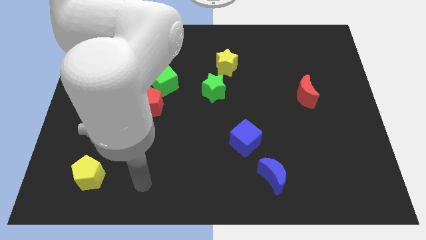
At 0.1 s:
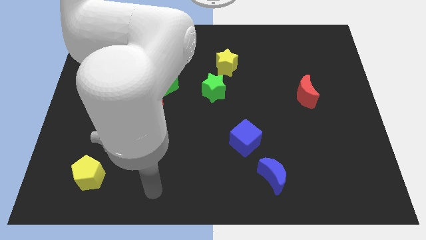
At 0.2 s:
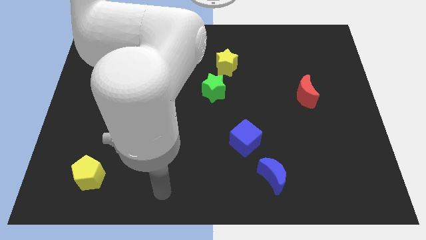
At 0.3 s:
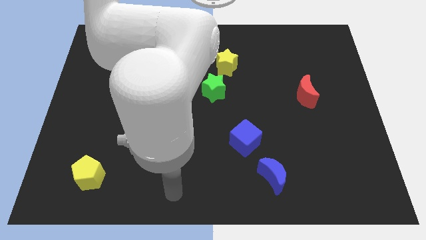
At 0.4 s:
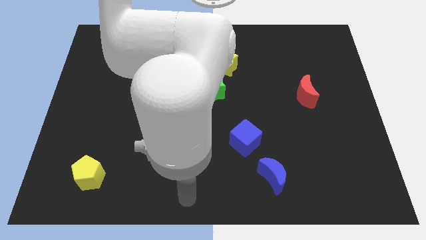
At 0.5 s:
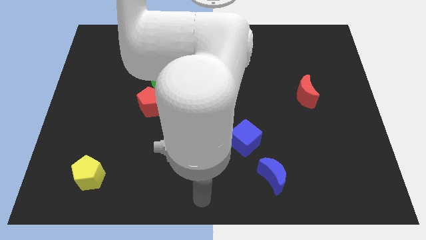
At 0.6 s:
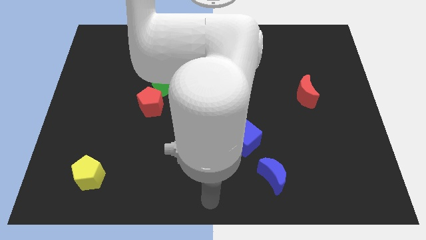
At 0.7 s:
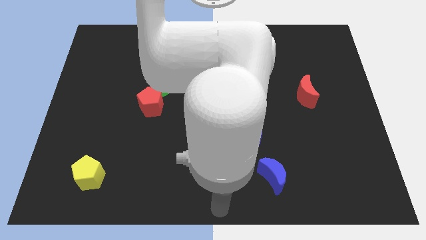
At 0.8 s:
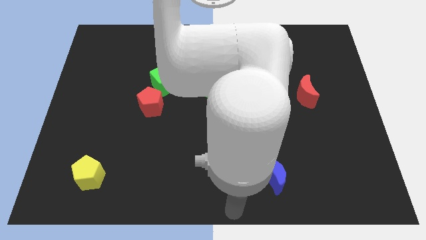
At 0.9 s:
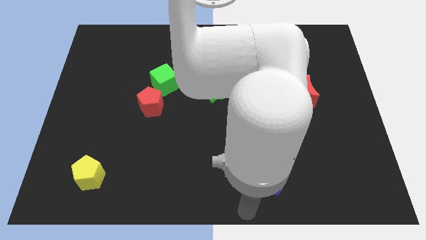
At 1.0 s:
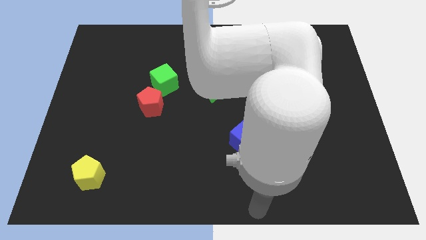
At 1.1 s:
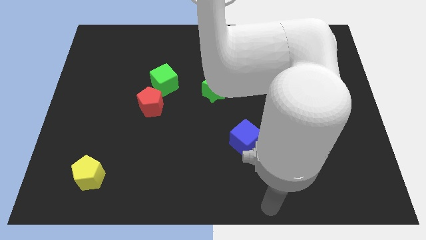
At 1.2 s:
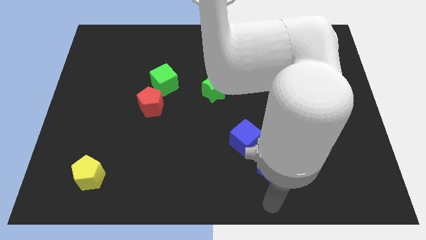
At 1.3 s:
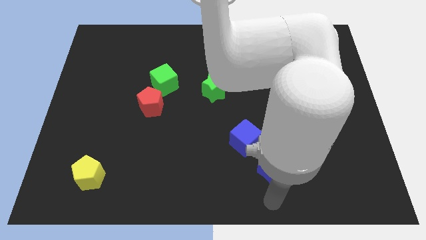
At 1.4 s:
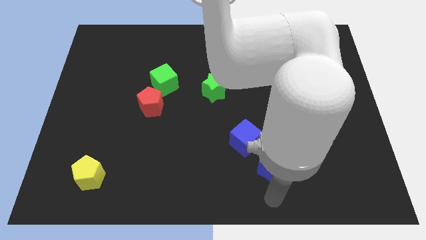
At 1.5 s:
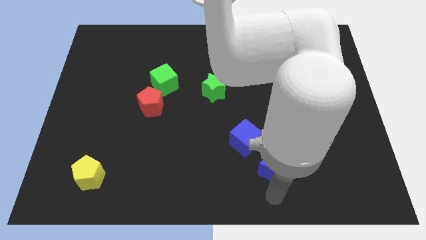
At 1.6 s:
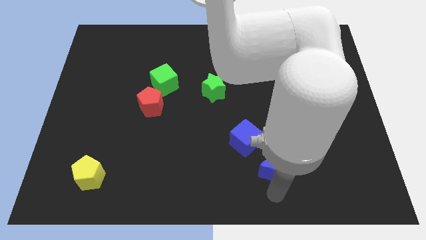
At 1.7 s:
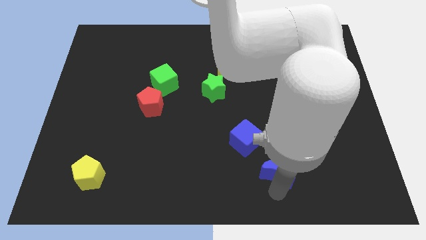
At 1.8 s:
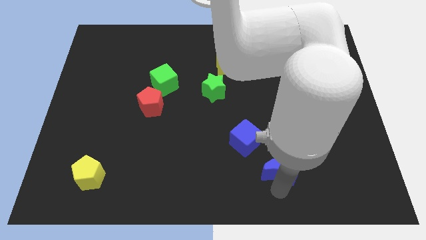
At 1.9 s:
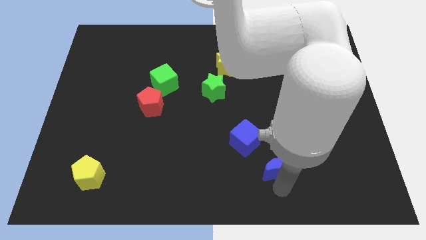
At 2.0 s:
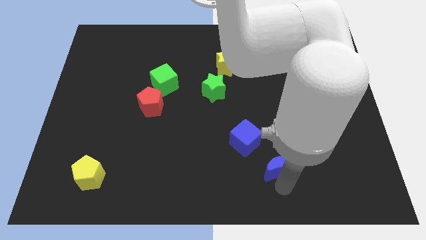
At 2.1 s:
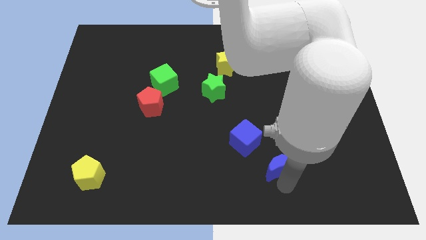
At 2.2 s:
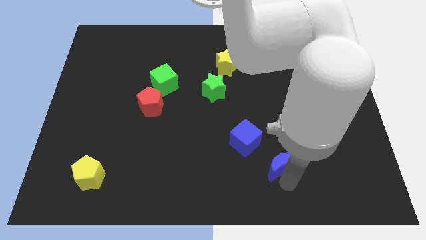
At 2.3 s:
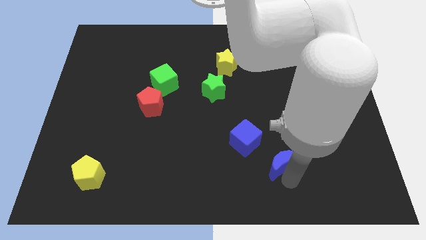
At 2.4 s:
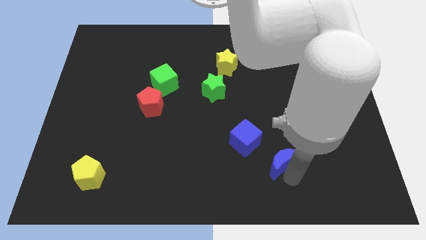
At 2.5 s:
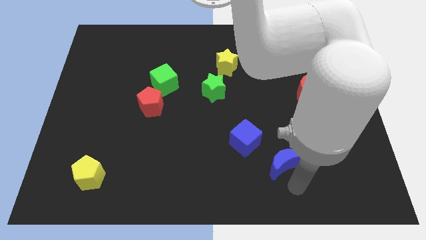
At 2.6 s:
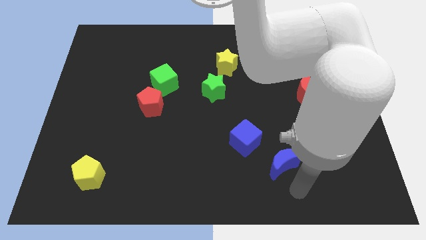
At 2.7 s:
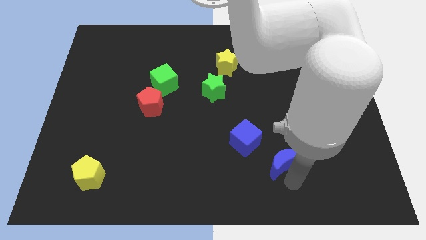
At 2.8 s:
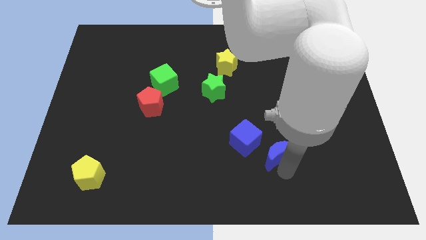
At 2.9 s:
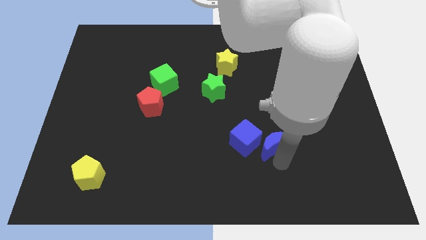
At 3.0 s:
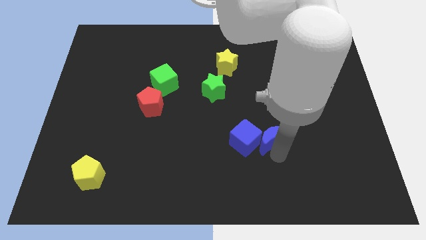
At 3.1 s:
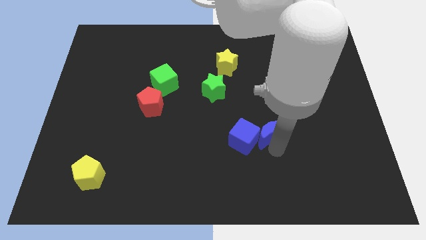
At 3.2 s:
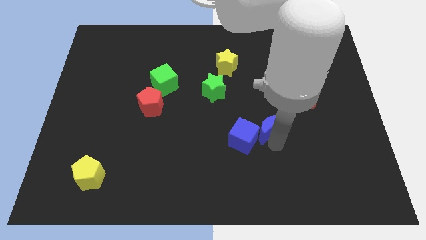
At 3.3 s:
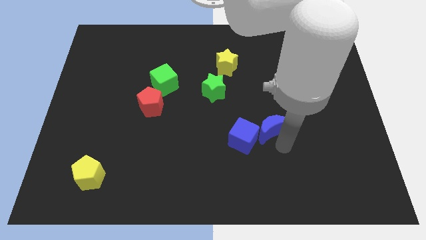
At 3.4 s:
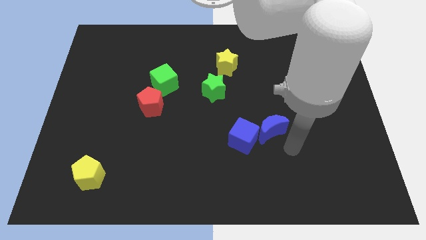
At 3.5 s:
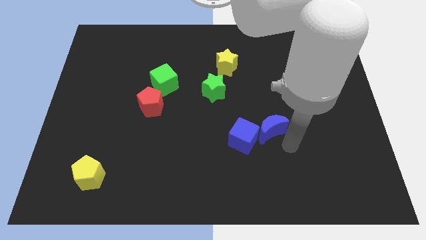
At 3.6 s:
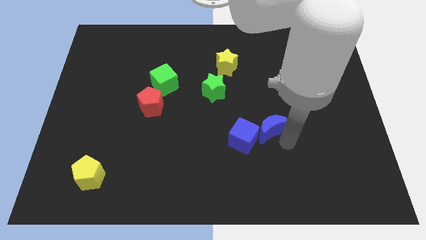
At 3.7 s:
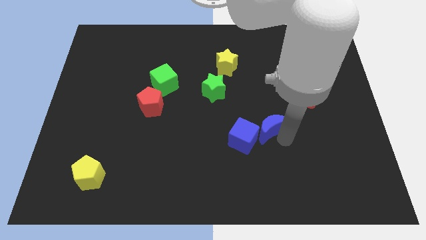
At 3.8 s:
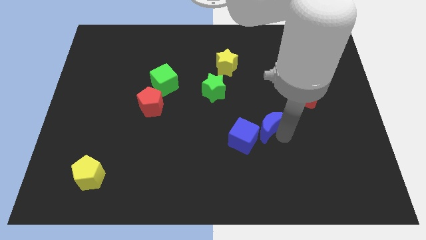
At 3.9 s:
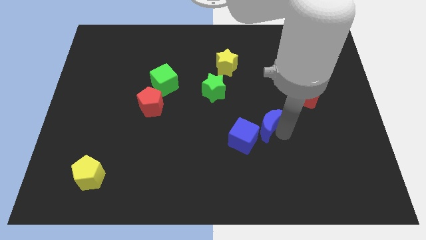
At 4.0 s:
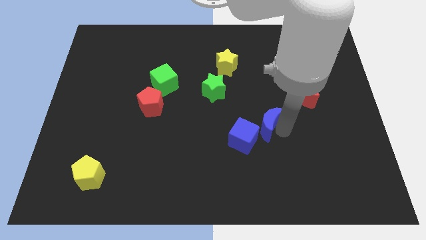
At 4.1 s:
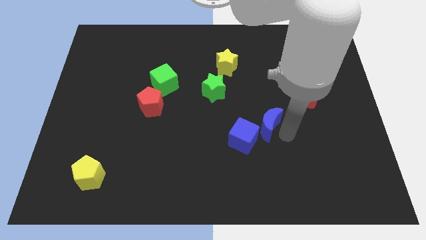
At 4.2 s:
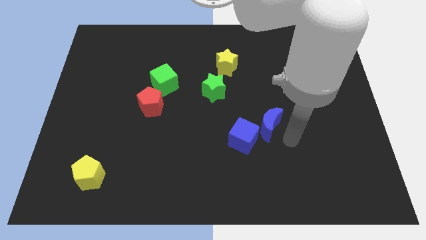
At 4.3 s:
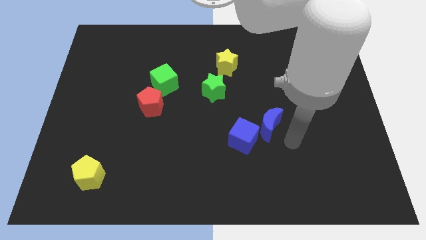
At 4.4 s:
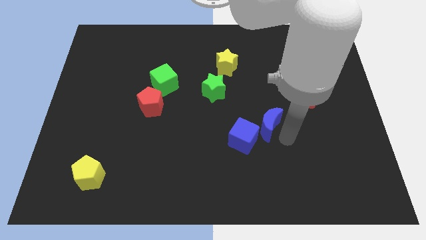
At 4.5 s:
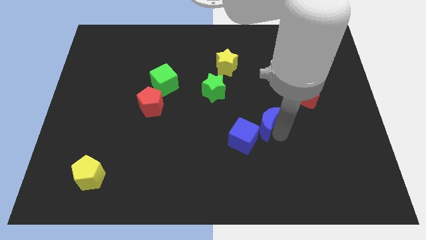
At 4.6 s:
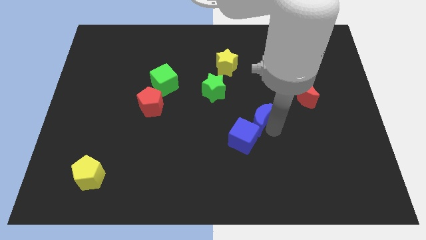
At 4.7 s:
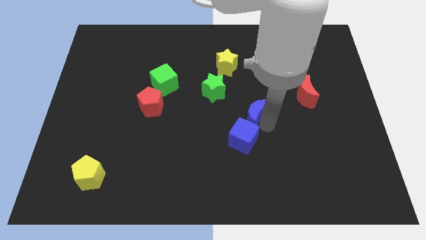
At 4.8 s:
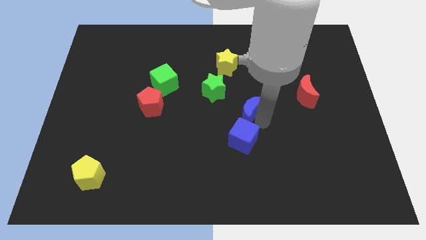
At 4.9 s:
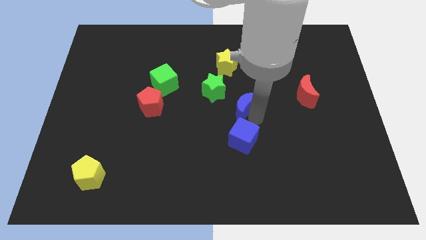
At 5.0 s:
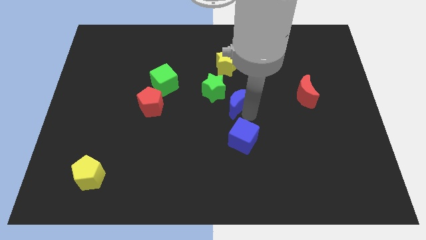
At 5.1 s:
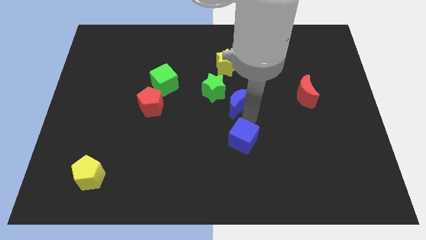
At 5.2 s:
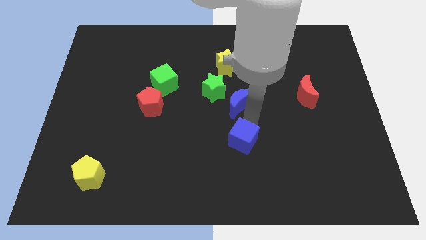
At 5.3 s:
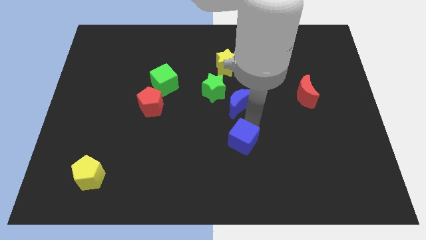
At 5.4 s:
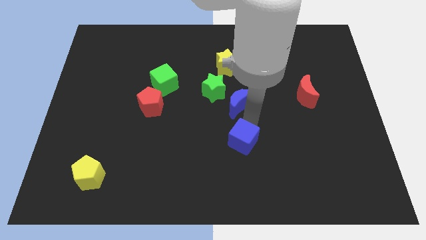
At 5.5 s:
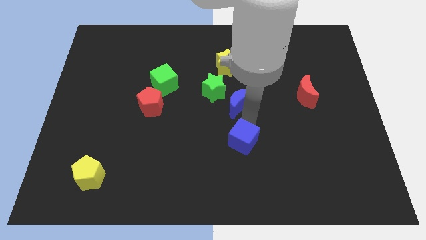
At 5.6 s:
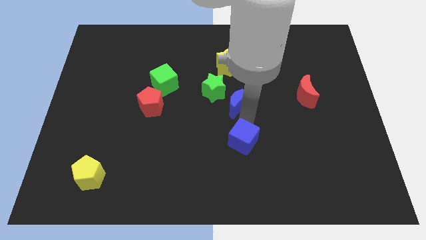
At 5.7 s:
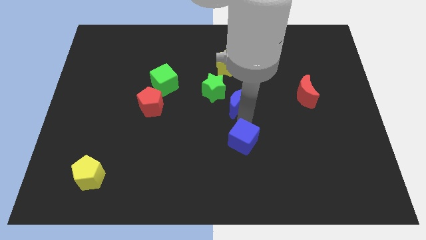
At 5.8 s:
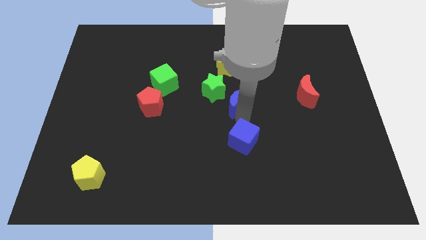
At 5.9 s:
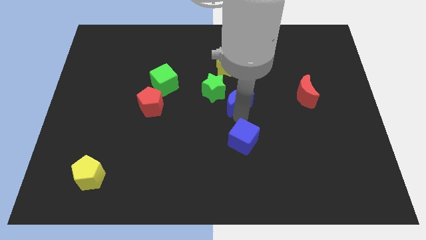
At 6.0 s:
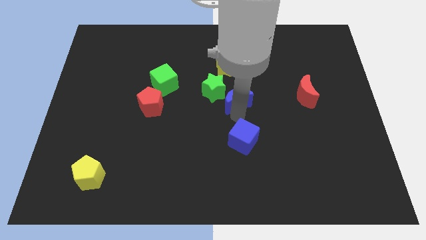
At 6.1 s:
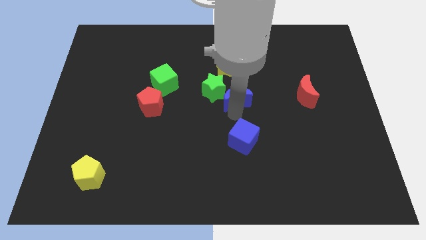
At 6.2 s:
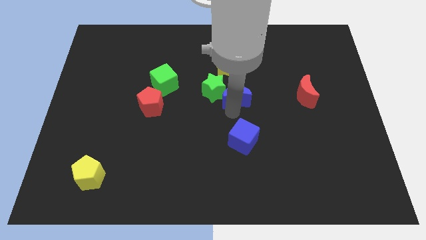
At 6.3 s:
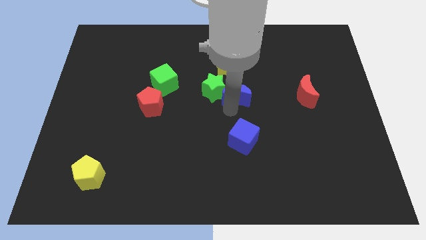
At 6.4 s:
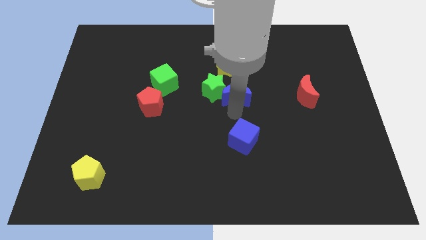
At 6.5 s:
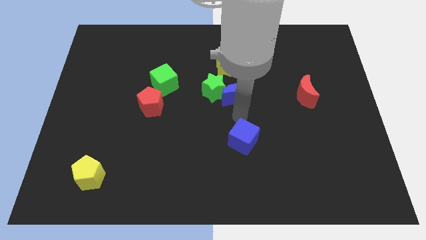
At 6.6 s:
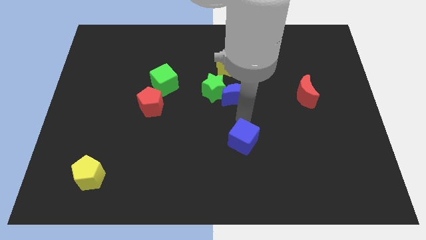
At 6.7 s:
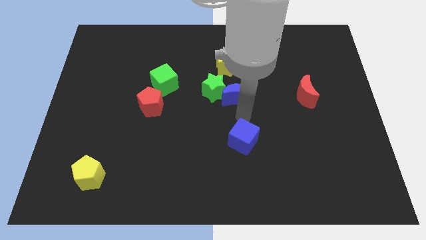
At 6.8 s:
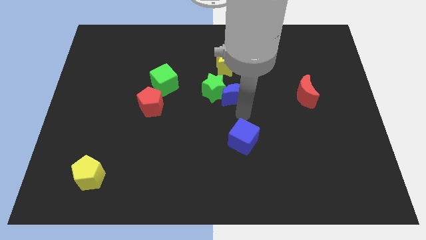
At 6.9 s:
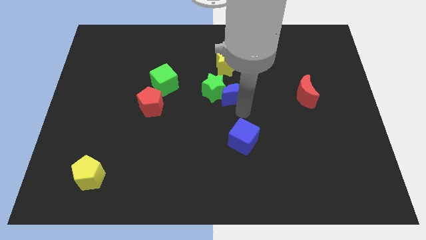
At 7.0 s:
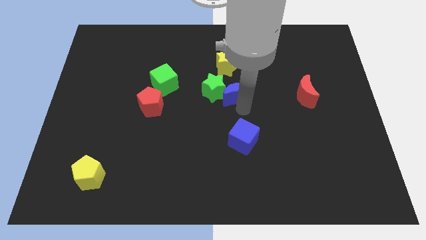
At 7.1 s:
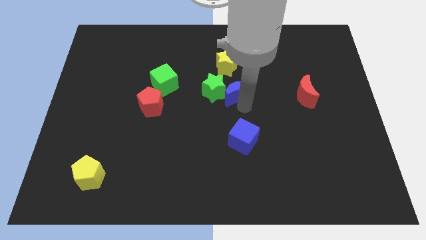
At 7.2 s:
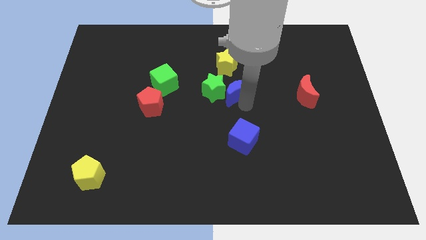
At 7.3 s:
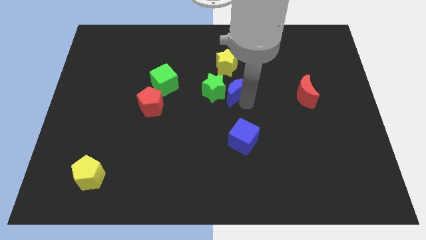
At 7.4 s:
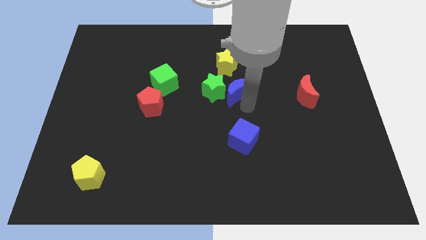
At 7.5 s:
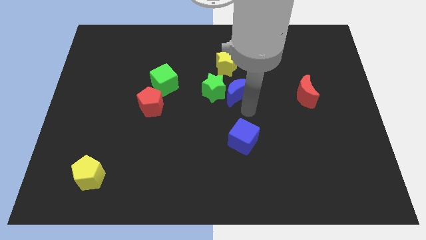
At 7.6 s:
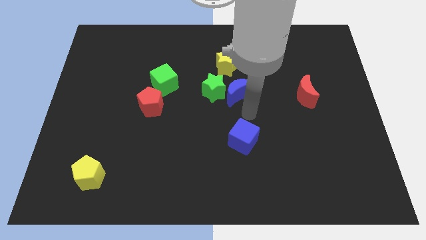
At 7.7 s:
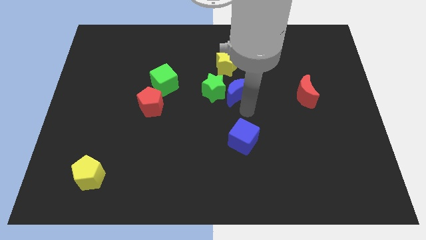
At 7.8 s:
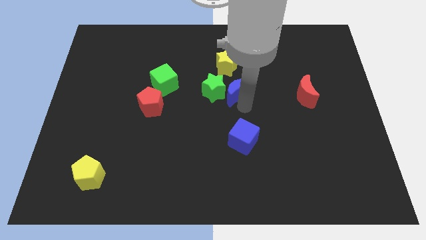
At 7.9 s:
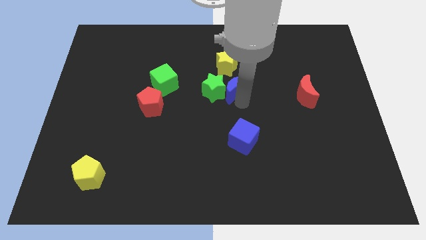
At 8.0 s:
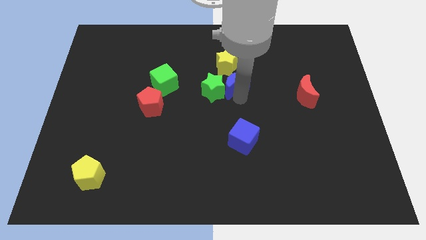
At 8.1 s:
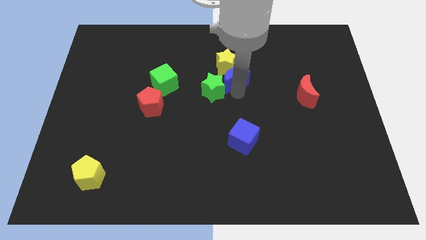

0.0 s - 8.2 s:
slide the blue moon next to the yellow star
